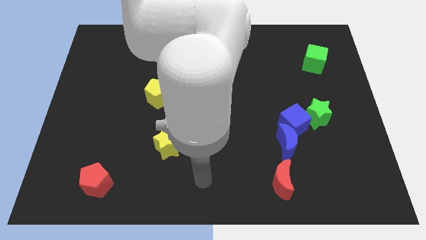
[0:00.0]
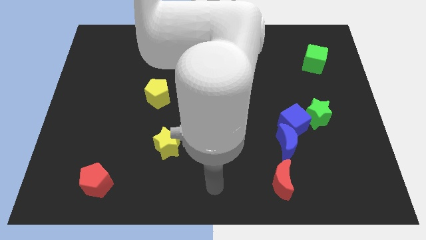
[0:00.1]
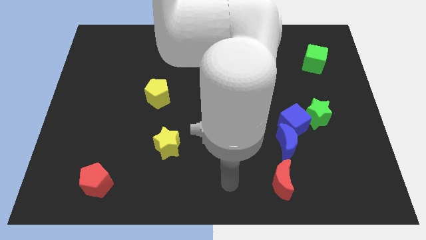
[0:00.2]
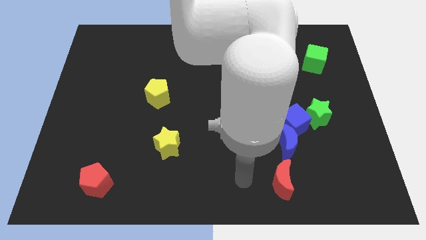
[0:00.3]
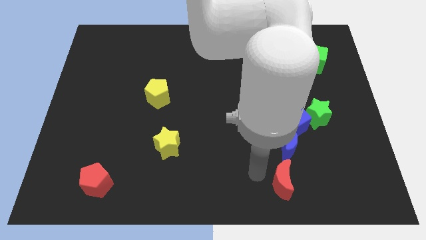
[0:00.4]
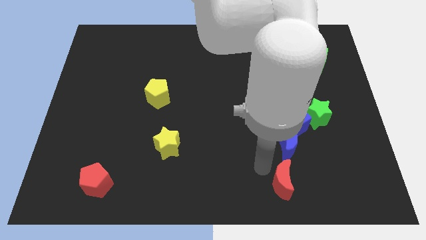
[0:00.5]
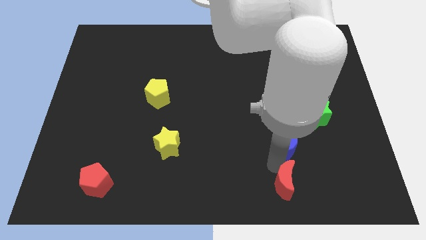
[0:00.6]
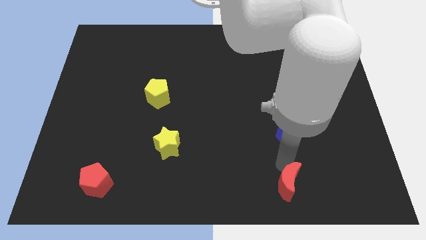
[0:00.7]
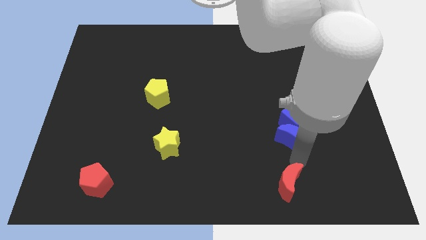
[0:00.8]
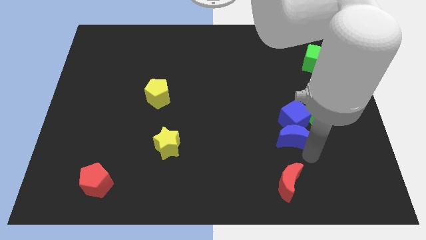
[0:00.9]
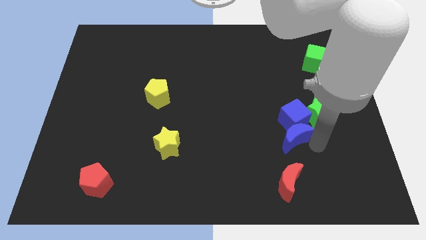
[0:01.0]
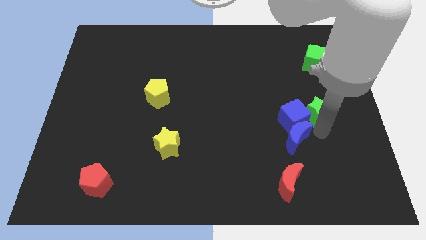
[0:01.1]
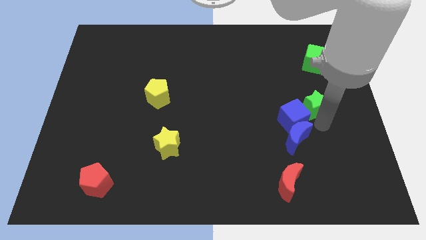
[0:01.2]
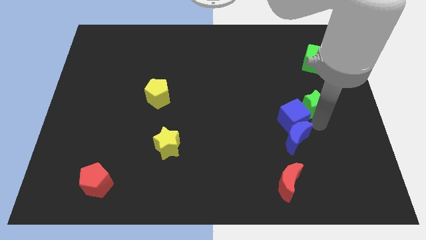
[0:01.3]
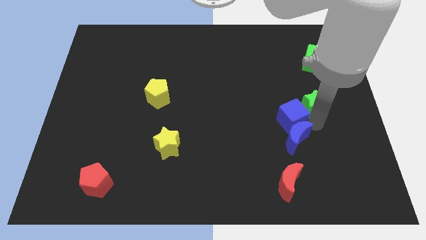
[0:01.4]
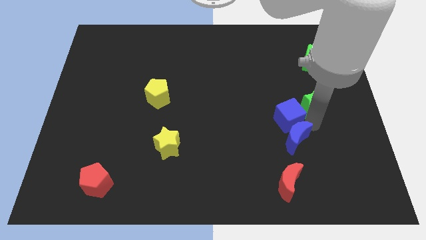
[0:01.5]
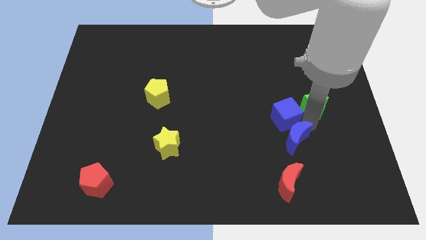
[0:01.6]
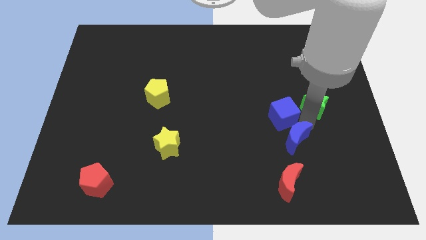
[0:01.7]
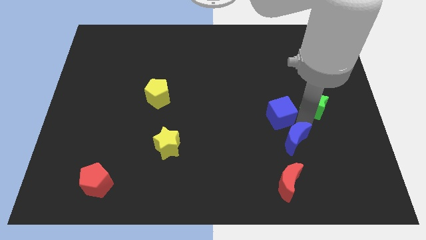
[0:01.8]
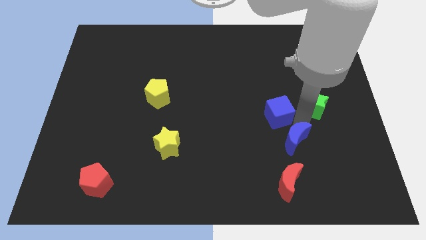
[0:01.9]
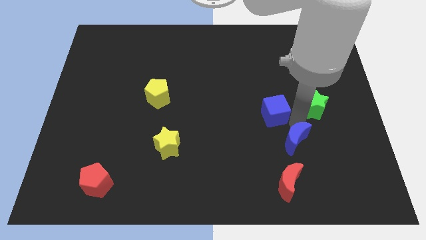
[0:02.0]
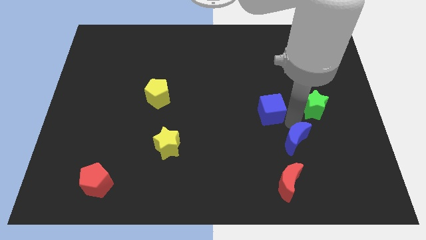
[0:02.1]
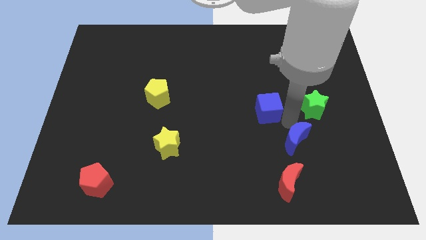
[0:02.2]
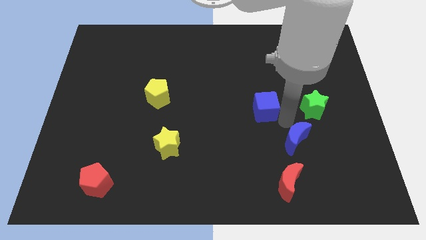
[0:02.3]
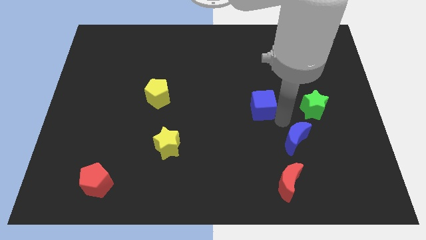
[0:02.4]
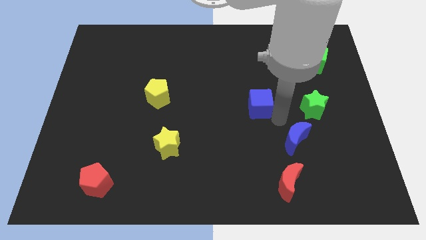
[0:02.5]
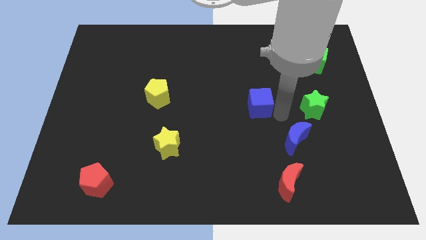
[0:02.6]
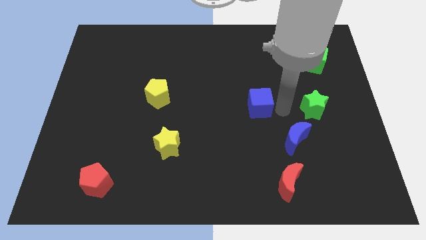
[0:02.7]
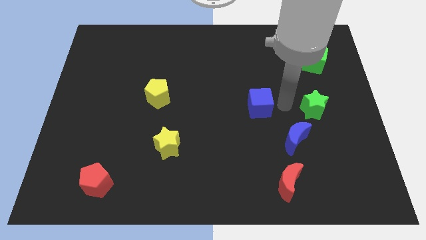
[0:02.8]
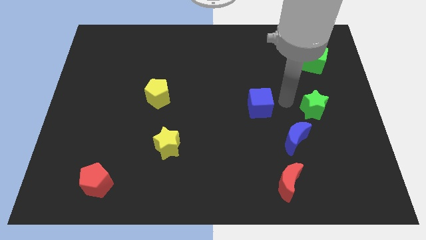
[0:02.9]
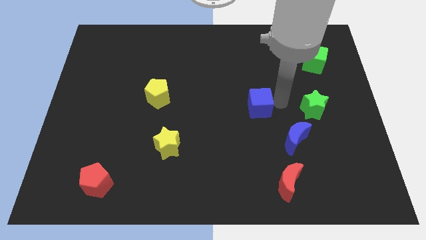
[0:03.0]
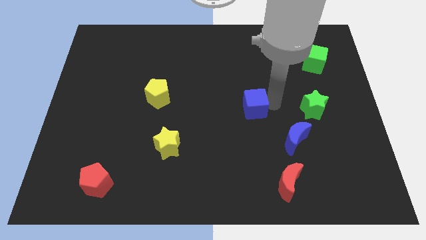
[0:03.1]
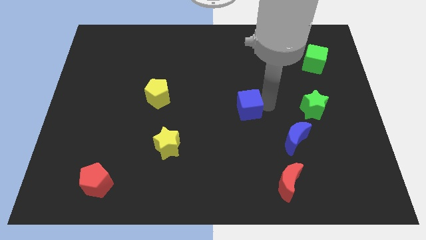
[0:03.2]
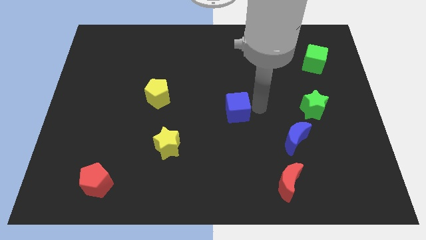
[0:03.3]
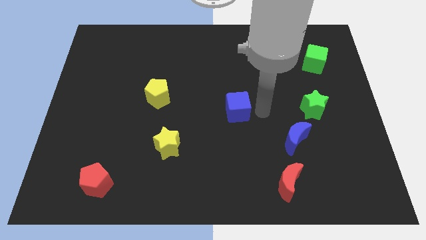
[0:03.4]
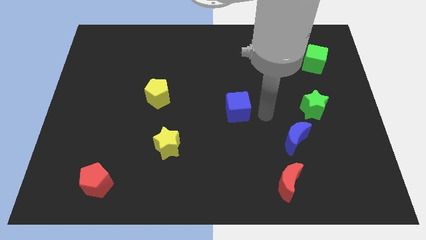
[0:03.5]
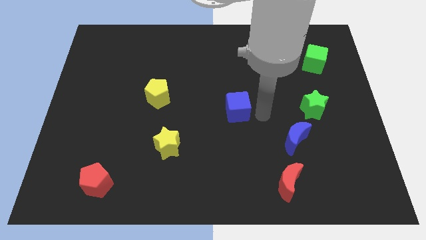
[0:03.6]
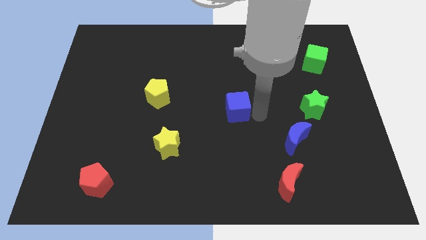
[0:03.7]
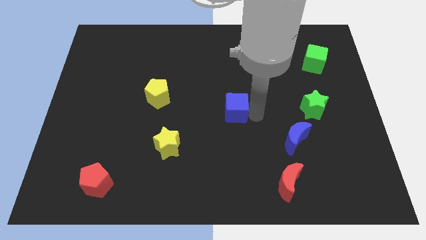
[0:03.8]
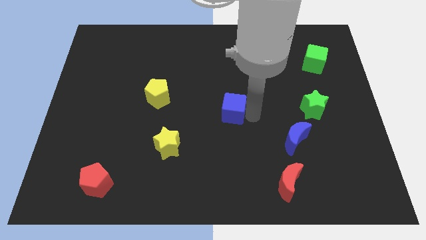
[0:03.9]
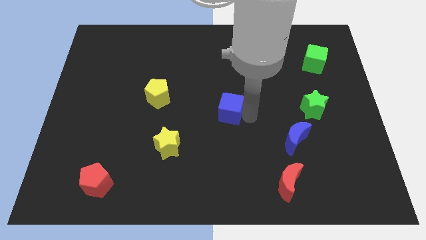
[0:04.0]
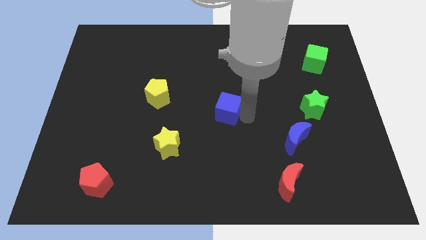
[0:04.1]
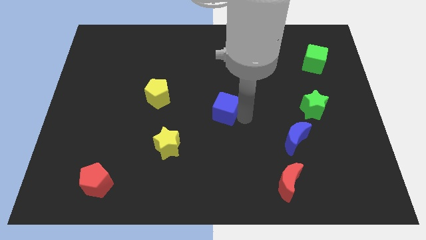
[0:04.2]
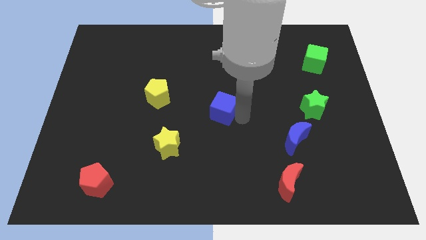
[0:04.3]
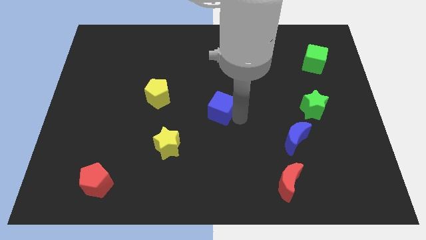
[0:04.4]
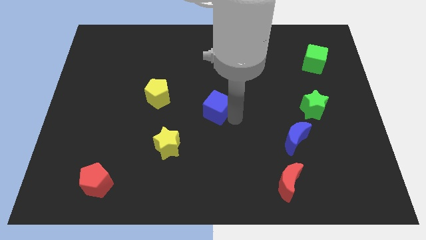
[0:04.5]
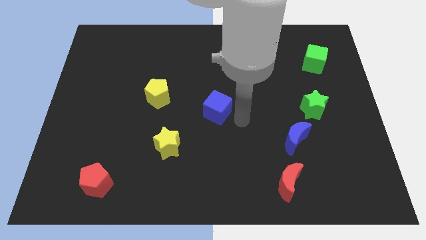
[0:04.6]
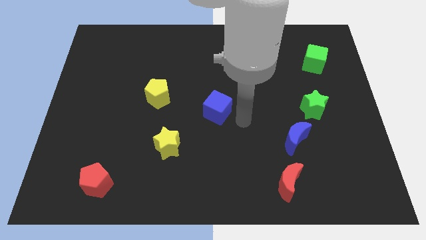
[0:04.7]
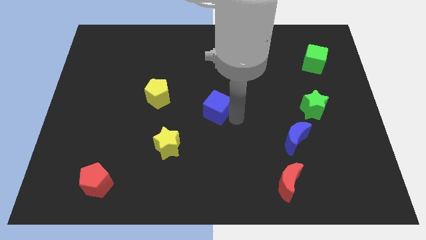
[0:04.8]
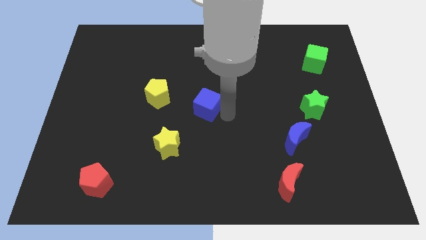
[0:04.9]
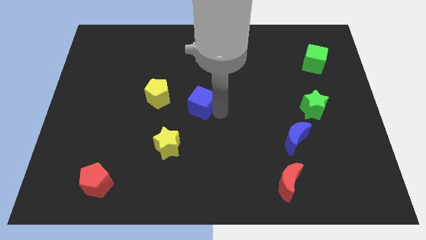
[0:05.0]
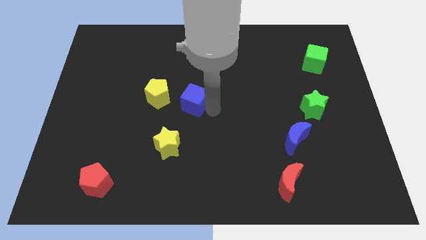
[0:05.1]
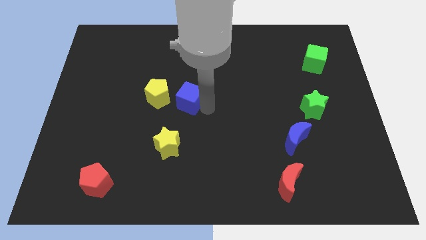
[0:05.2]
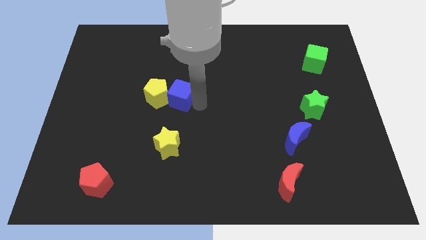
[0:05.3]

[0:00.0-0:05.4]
push the blue cube towards the yellow pentagon

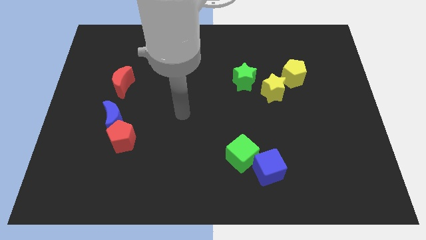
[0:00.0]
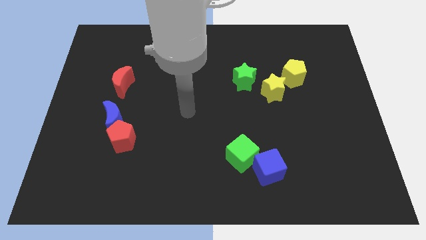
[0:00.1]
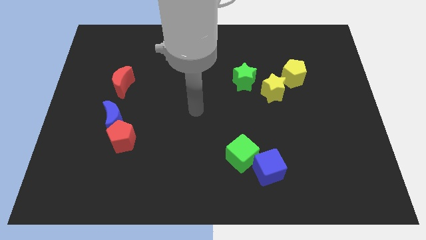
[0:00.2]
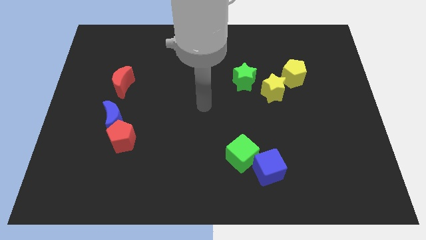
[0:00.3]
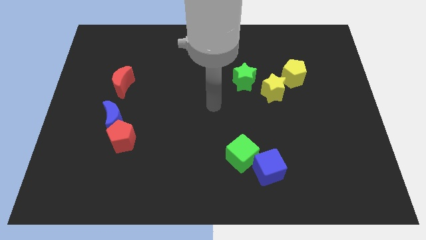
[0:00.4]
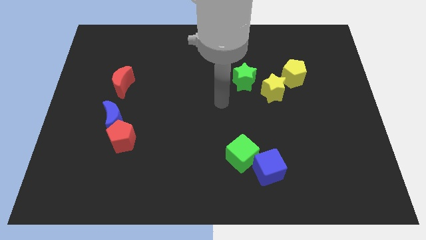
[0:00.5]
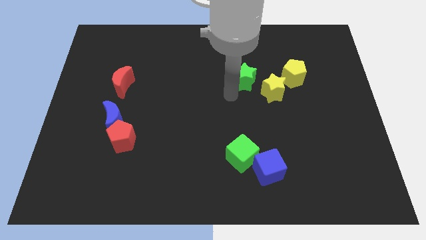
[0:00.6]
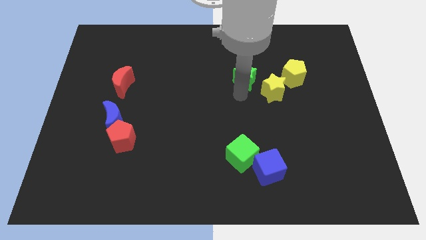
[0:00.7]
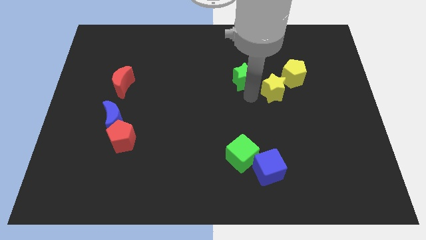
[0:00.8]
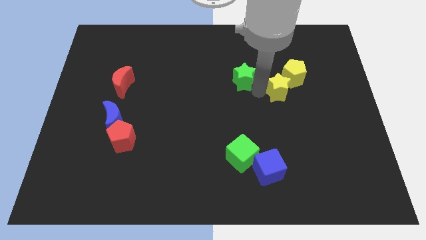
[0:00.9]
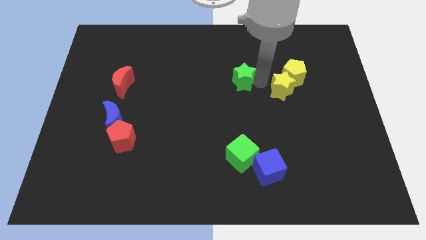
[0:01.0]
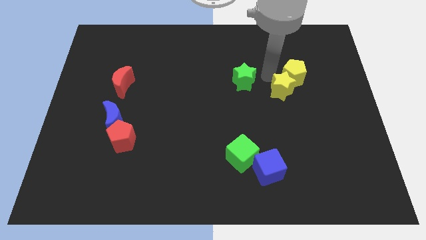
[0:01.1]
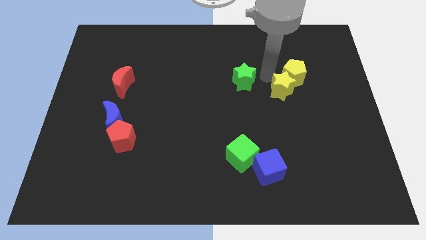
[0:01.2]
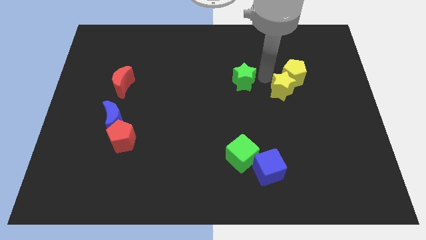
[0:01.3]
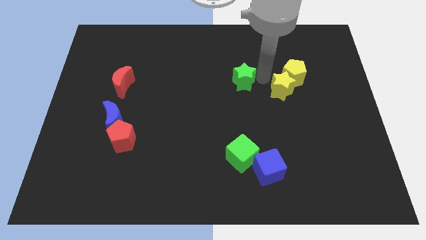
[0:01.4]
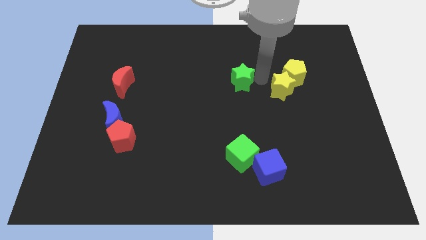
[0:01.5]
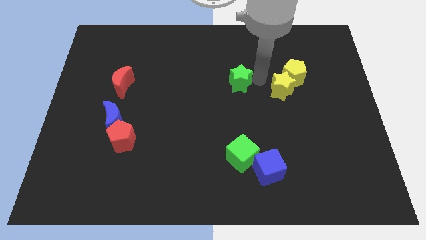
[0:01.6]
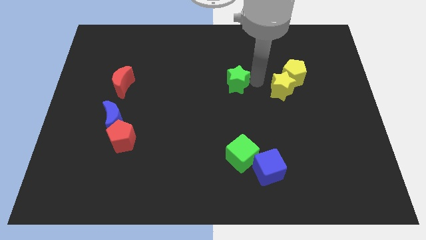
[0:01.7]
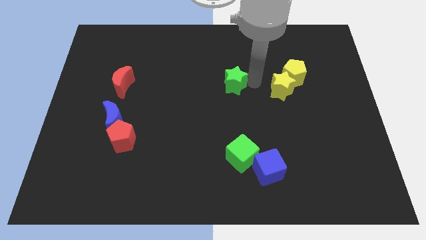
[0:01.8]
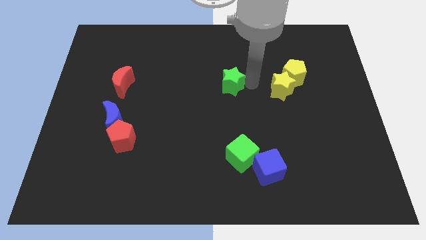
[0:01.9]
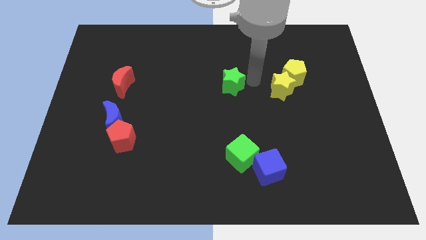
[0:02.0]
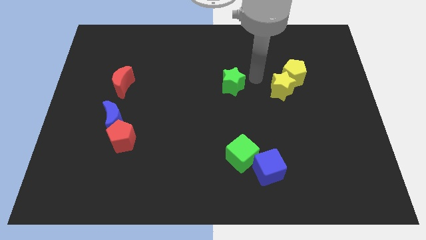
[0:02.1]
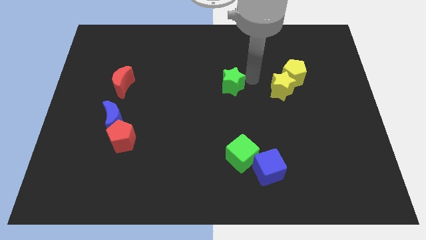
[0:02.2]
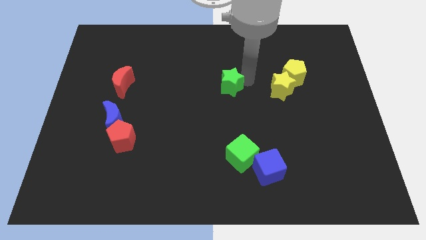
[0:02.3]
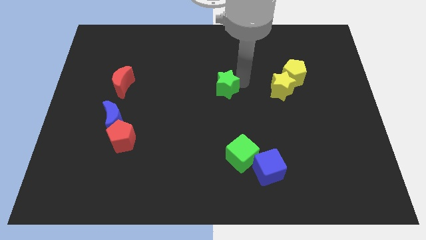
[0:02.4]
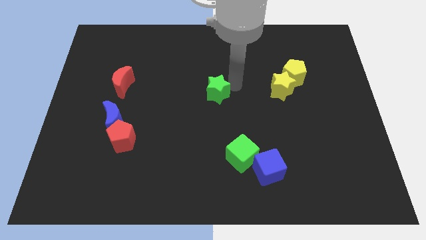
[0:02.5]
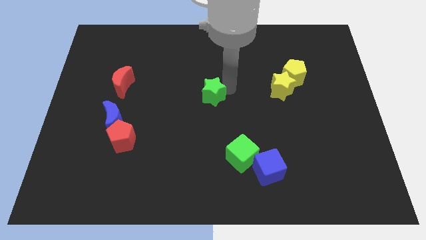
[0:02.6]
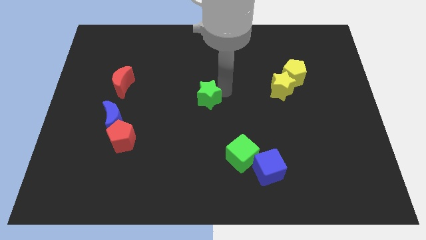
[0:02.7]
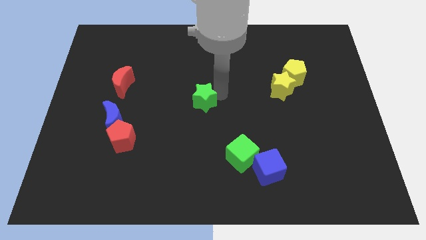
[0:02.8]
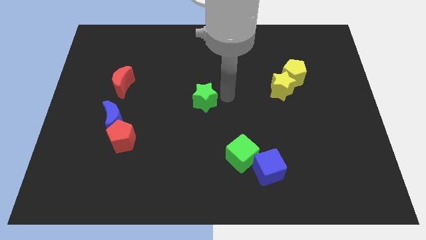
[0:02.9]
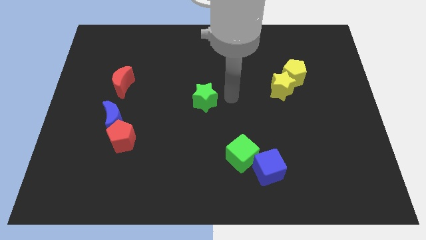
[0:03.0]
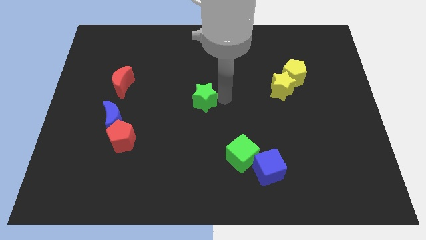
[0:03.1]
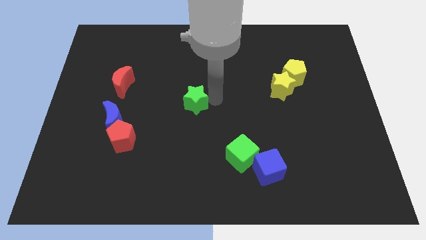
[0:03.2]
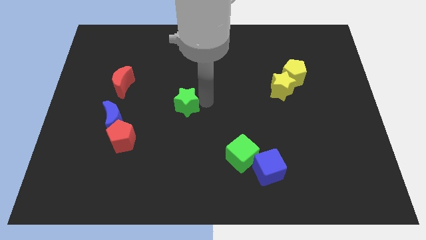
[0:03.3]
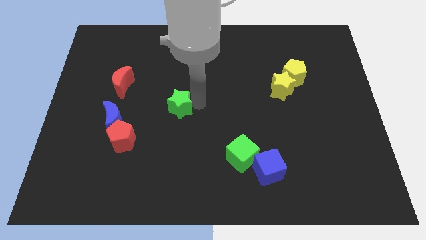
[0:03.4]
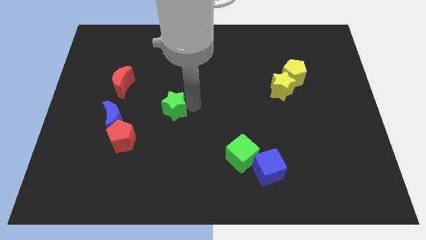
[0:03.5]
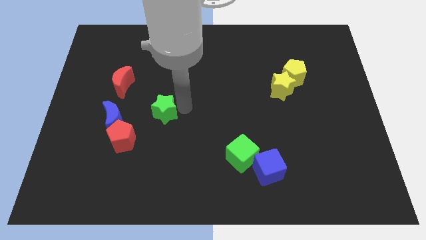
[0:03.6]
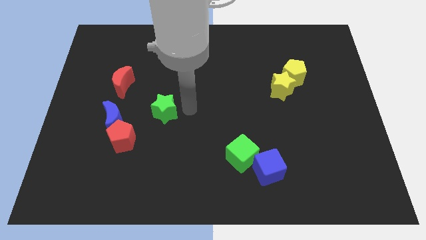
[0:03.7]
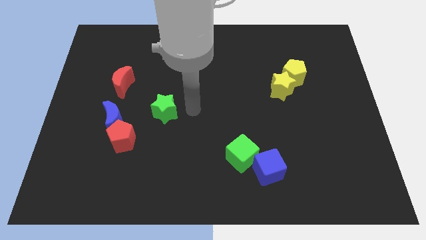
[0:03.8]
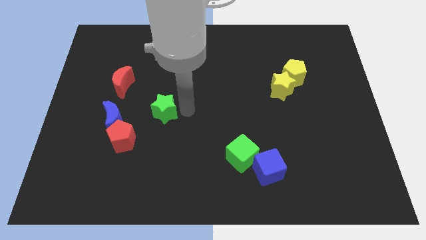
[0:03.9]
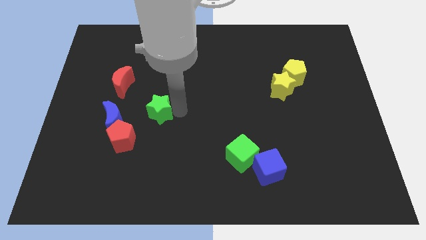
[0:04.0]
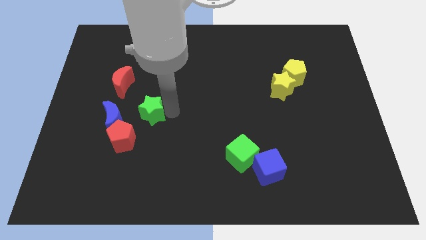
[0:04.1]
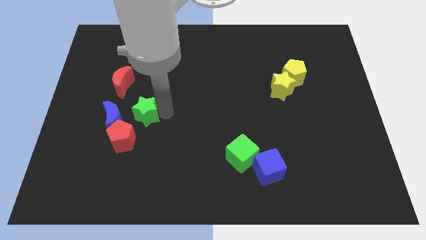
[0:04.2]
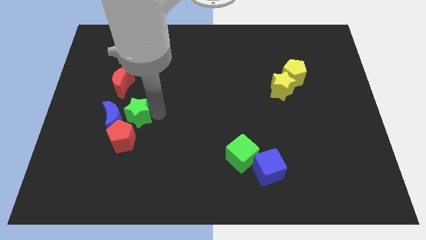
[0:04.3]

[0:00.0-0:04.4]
put the green star towards the blue moon
